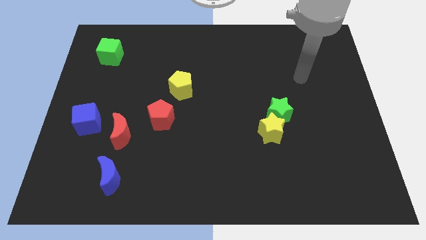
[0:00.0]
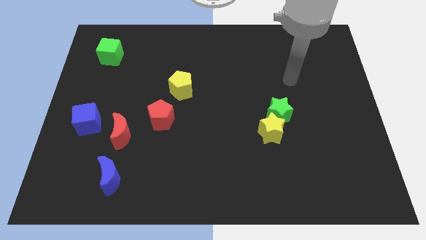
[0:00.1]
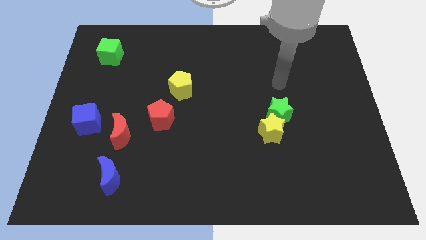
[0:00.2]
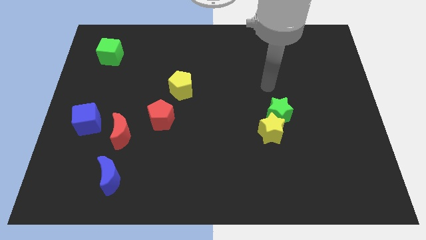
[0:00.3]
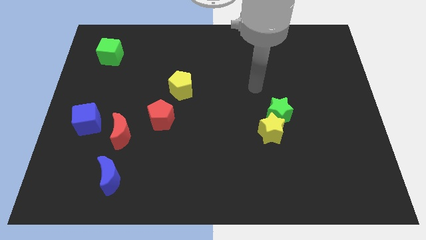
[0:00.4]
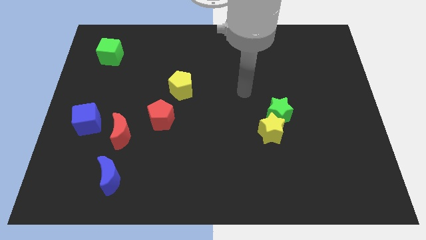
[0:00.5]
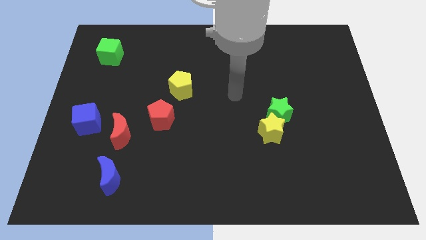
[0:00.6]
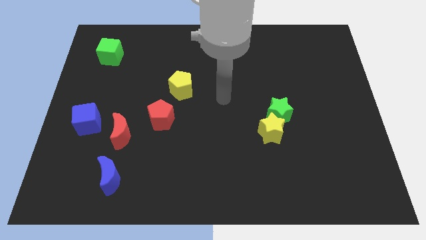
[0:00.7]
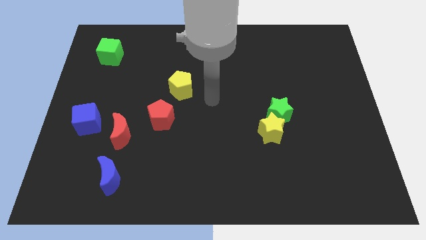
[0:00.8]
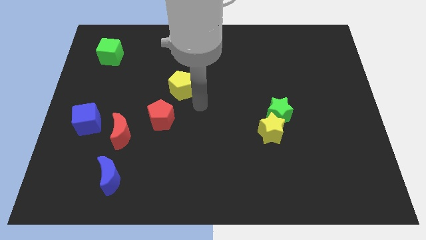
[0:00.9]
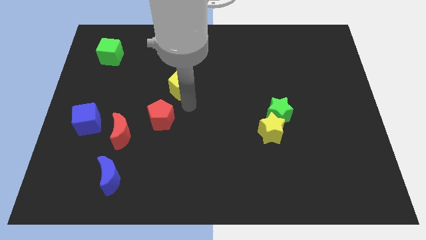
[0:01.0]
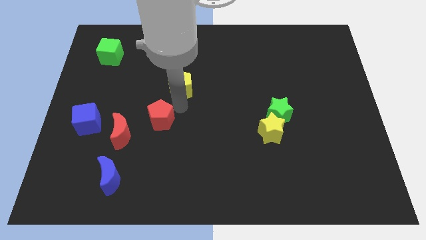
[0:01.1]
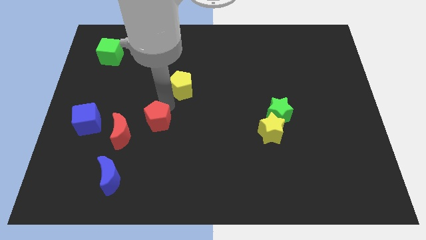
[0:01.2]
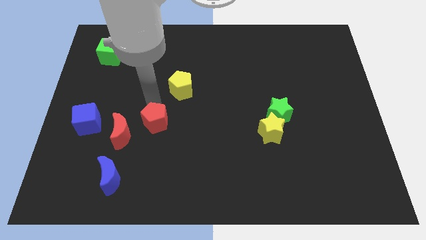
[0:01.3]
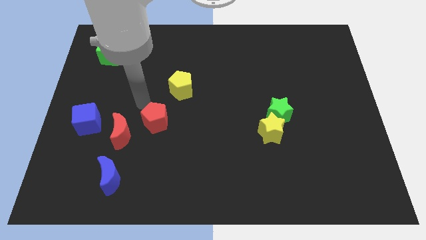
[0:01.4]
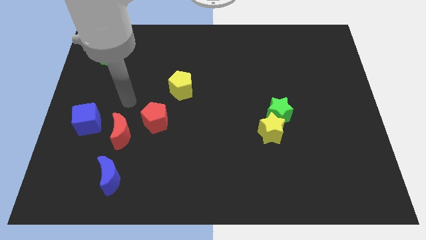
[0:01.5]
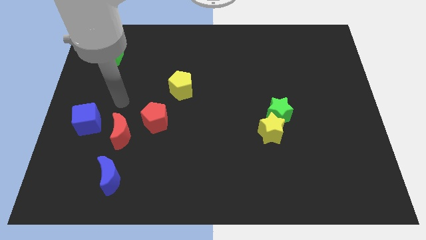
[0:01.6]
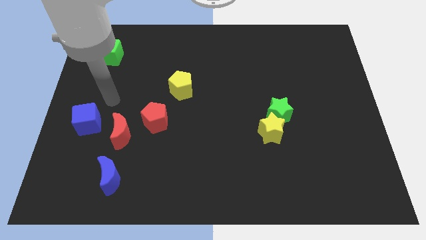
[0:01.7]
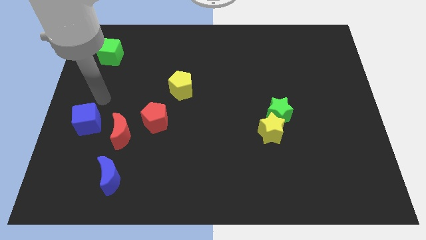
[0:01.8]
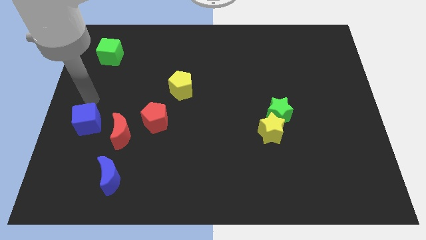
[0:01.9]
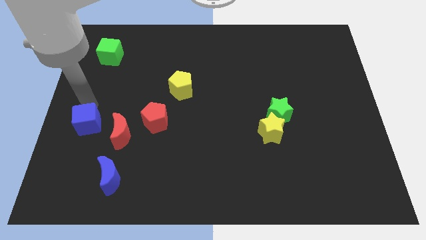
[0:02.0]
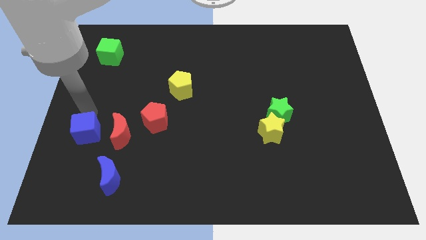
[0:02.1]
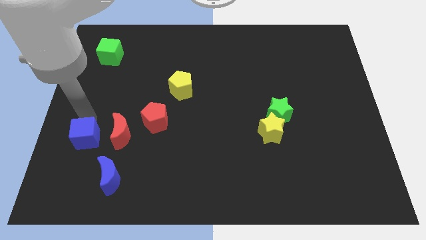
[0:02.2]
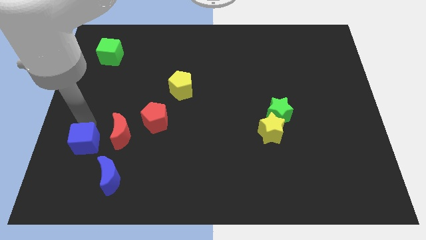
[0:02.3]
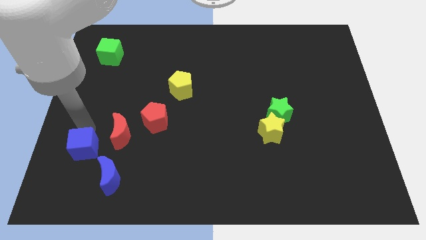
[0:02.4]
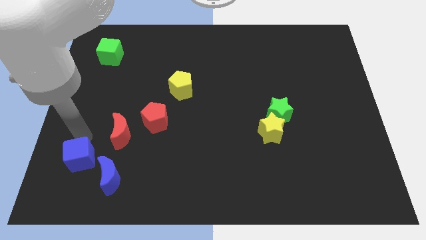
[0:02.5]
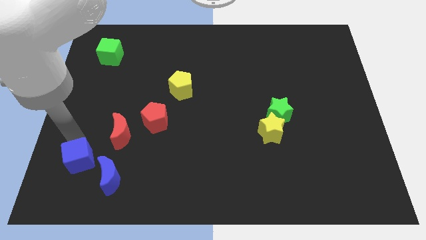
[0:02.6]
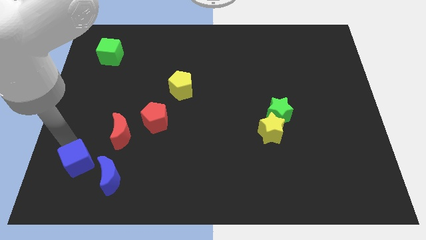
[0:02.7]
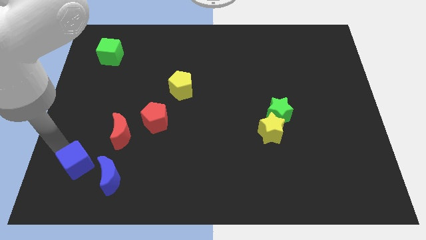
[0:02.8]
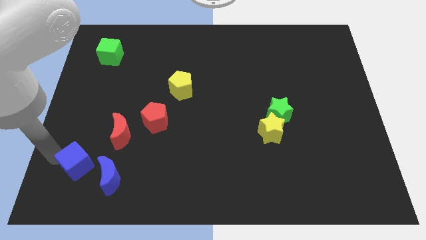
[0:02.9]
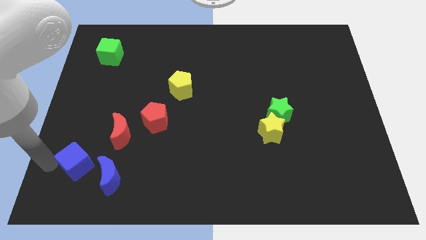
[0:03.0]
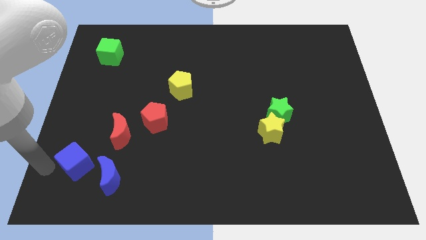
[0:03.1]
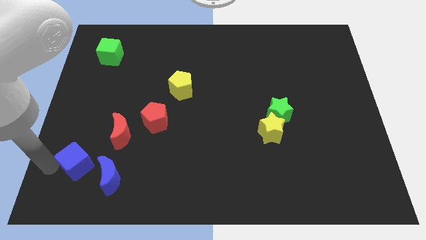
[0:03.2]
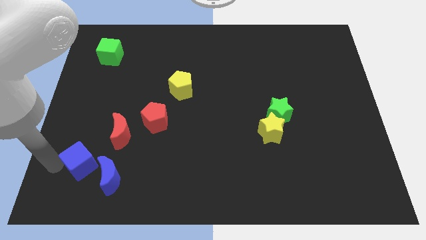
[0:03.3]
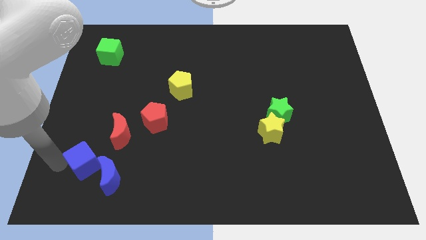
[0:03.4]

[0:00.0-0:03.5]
push the blue cube slightly down and then right

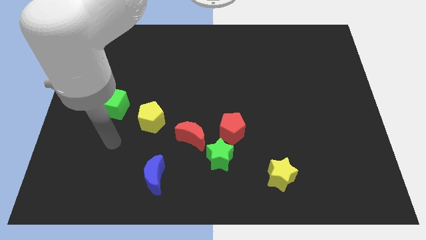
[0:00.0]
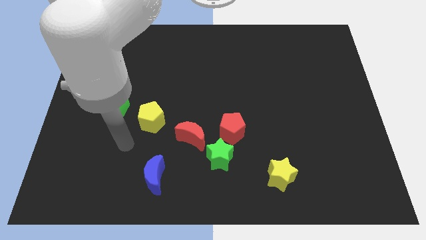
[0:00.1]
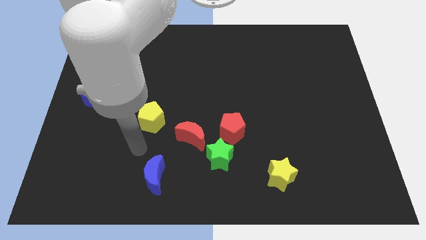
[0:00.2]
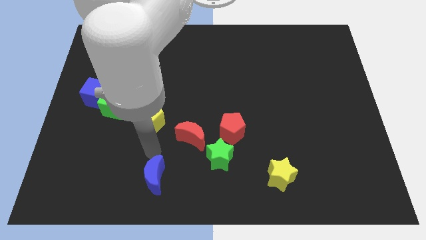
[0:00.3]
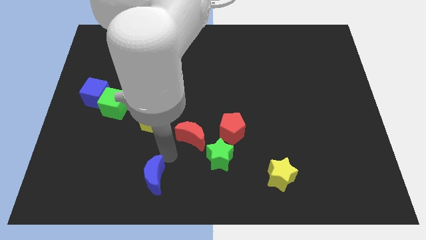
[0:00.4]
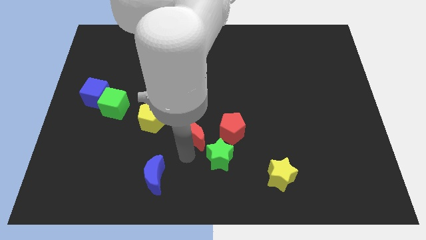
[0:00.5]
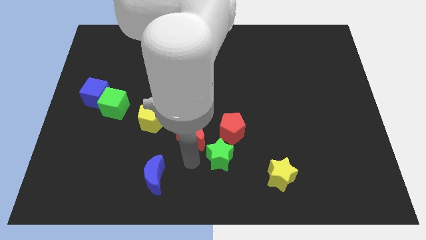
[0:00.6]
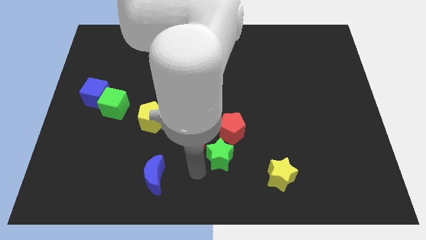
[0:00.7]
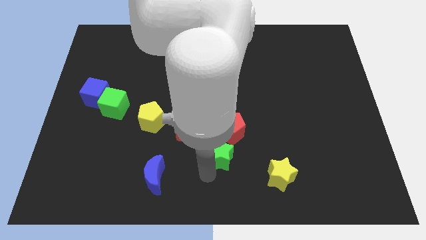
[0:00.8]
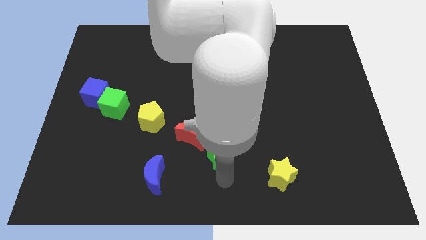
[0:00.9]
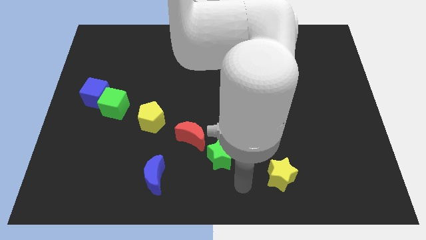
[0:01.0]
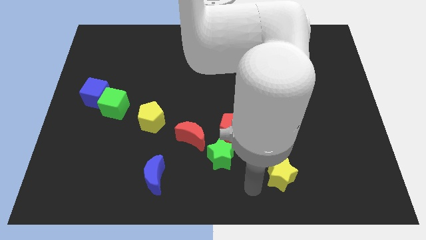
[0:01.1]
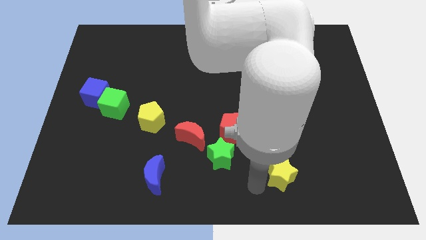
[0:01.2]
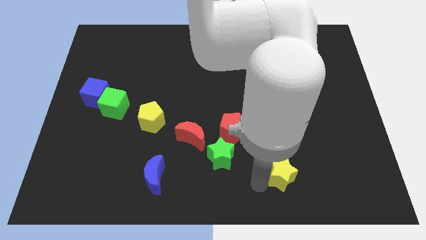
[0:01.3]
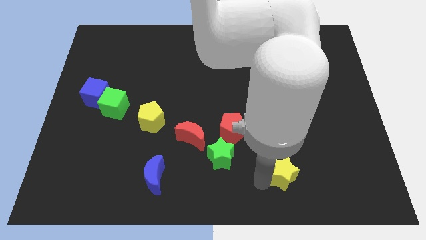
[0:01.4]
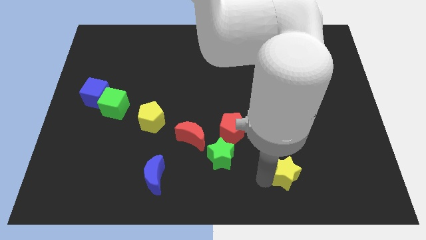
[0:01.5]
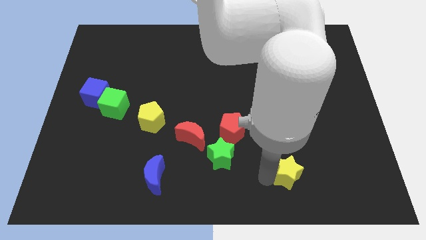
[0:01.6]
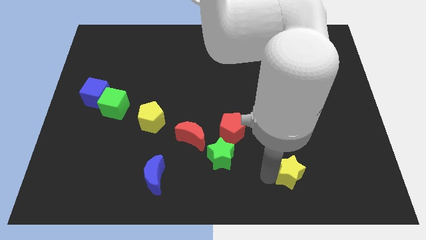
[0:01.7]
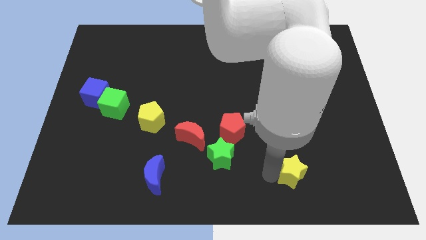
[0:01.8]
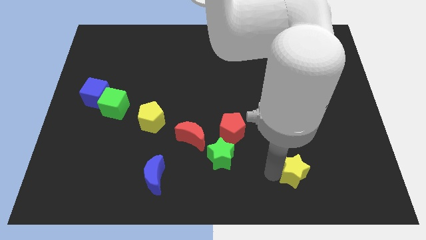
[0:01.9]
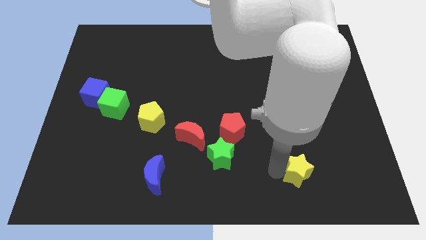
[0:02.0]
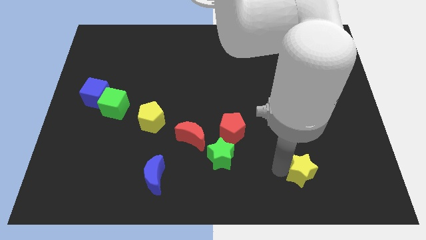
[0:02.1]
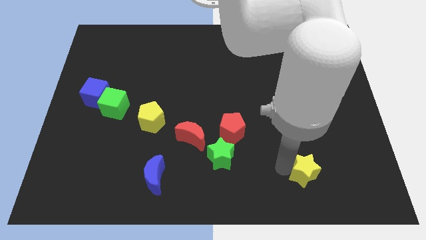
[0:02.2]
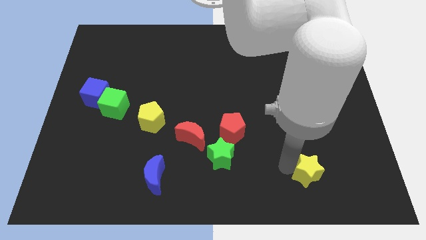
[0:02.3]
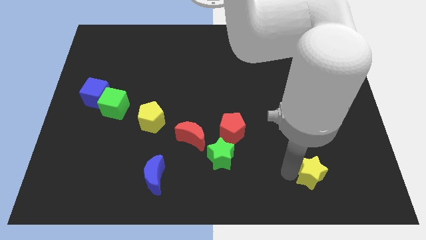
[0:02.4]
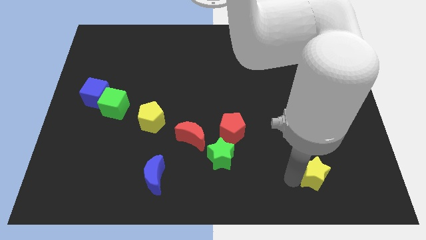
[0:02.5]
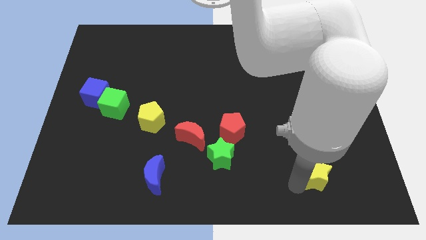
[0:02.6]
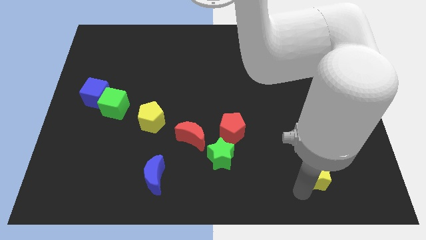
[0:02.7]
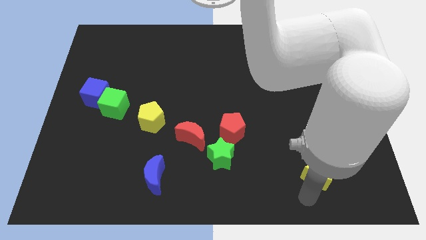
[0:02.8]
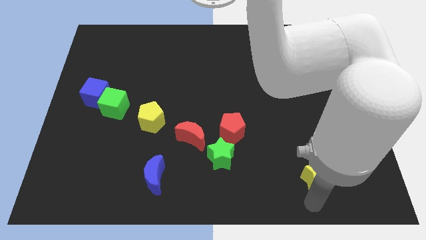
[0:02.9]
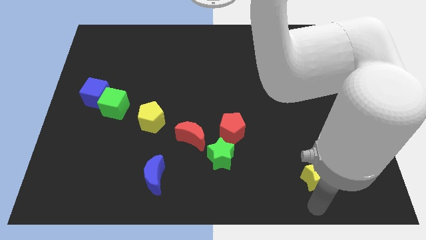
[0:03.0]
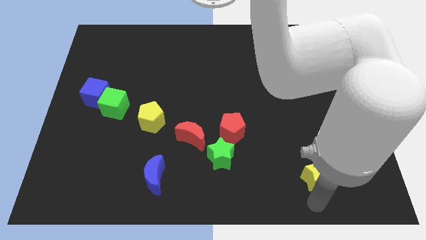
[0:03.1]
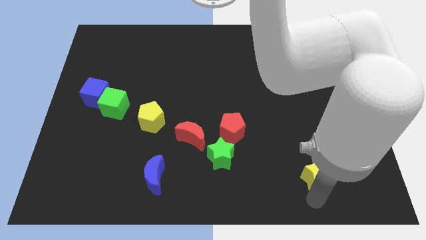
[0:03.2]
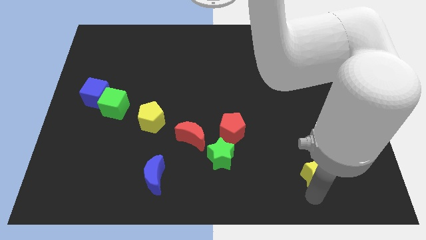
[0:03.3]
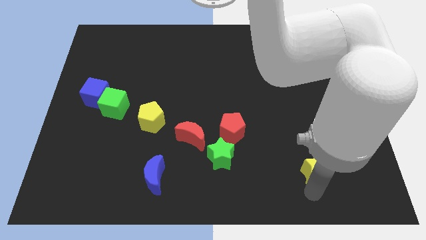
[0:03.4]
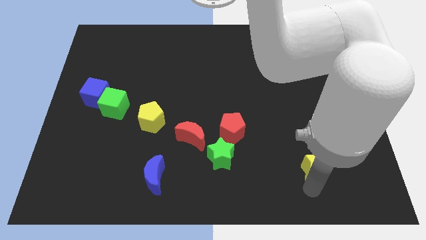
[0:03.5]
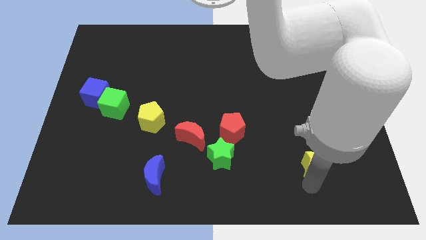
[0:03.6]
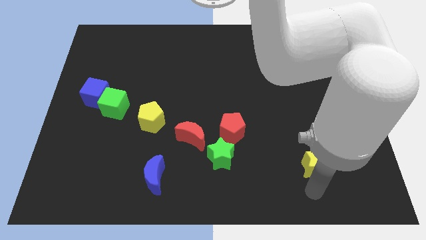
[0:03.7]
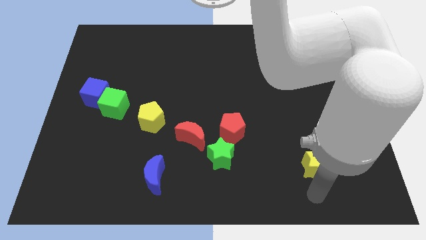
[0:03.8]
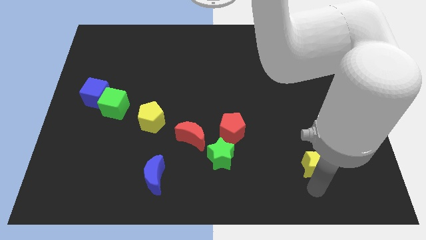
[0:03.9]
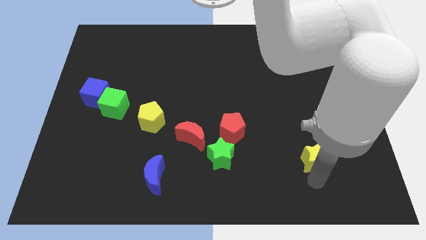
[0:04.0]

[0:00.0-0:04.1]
move the yellow star upwards and then to the right a little bit

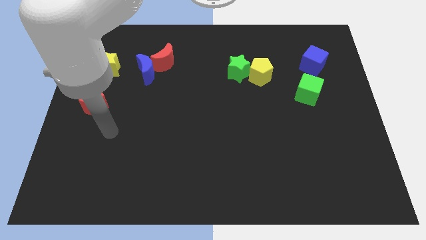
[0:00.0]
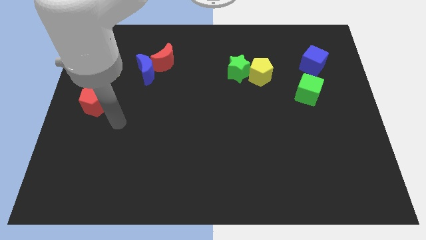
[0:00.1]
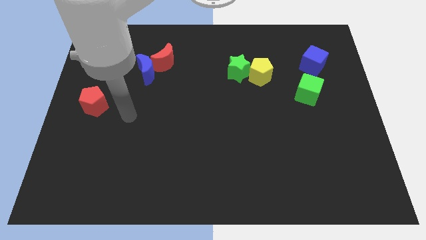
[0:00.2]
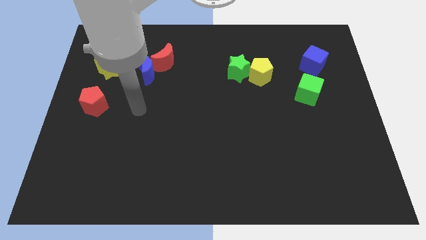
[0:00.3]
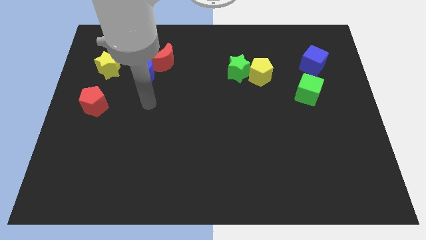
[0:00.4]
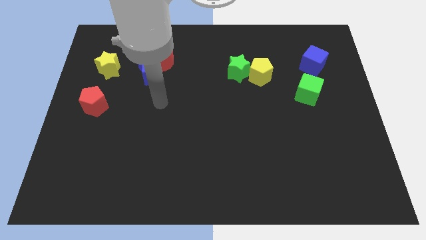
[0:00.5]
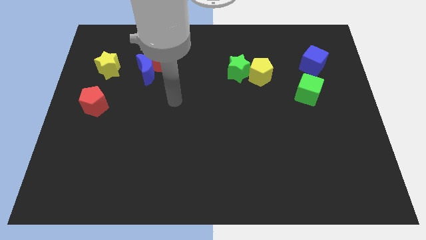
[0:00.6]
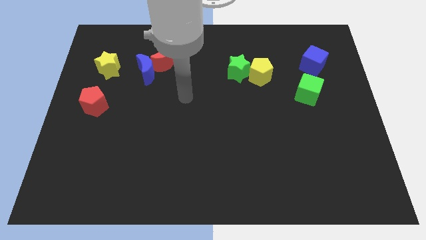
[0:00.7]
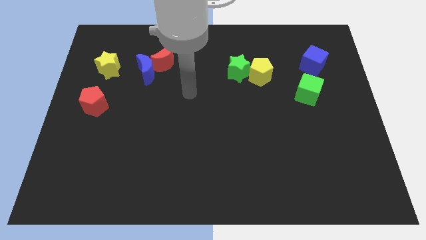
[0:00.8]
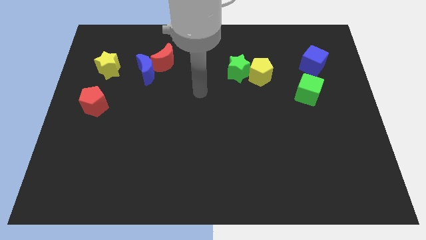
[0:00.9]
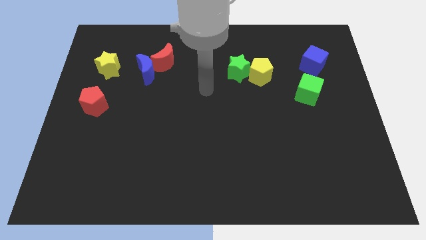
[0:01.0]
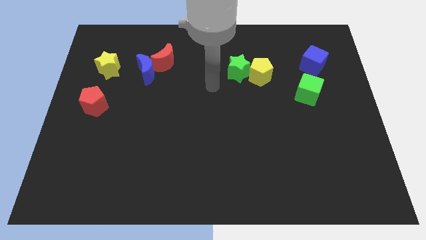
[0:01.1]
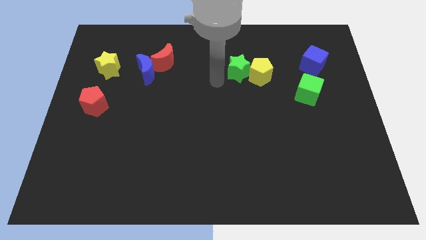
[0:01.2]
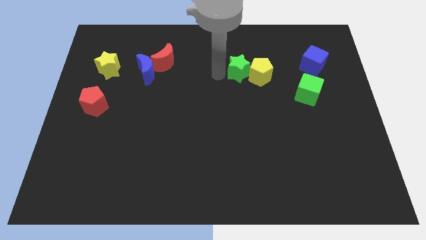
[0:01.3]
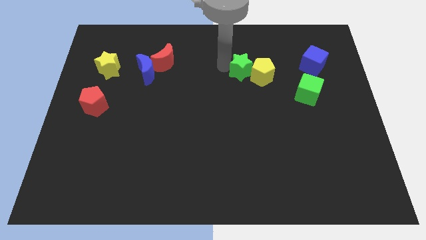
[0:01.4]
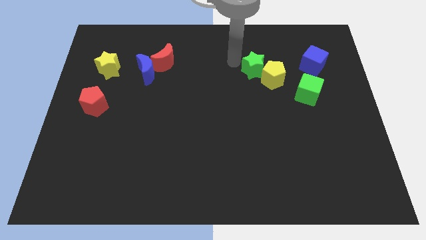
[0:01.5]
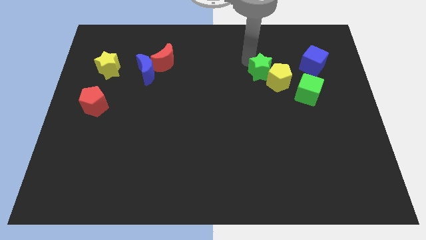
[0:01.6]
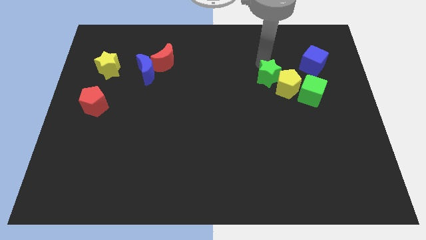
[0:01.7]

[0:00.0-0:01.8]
move the yellow pentagon slightly diagonally down and to the right
